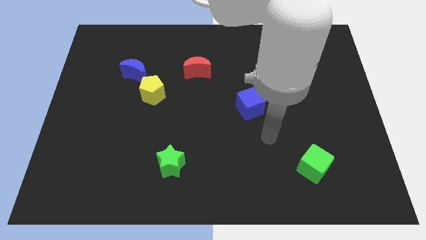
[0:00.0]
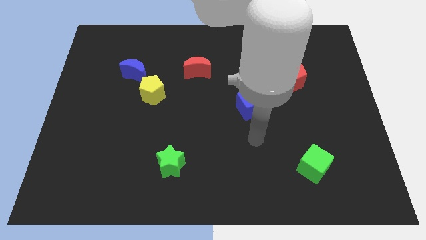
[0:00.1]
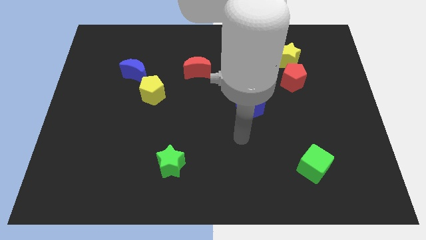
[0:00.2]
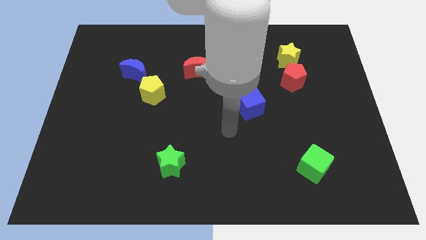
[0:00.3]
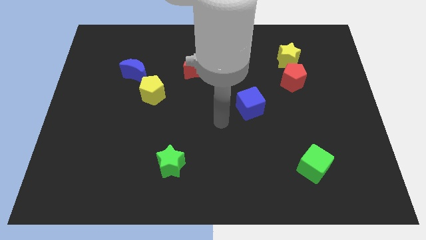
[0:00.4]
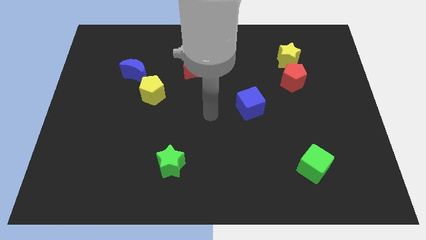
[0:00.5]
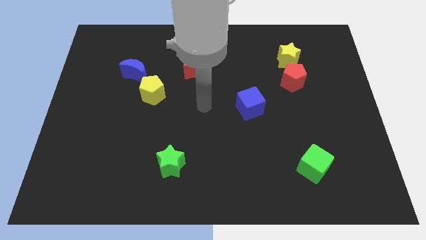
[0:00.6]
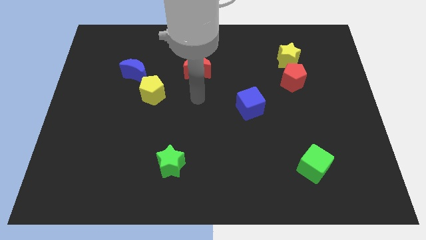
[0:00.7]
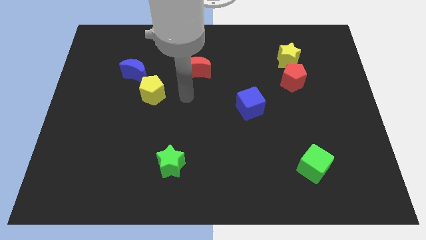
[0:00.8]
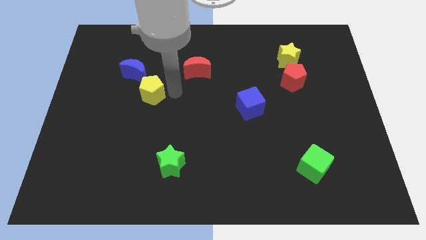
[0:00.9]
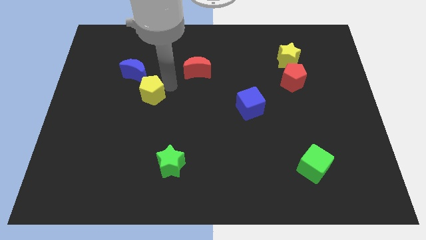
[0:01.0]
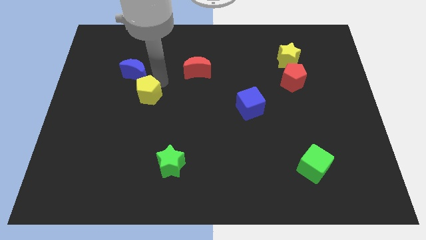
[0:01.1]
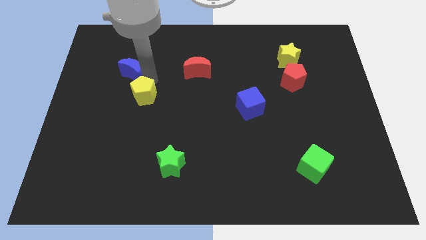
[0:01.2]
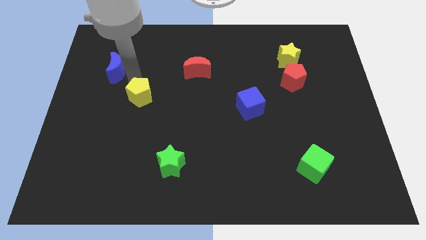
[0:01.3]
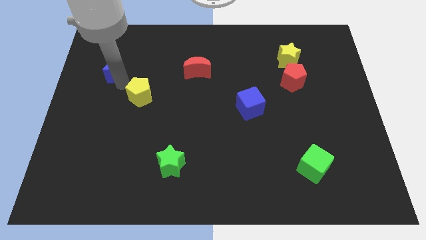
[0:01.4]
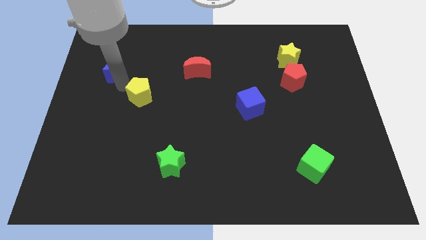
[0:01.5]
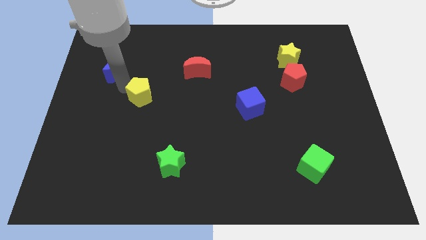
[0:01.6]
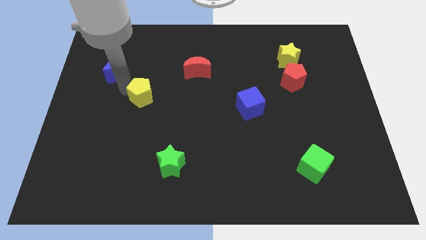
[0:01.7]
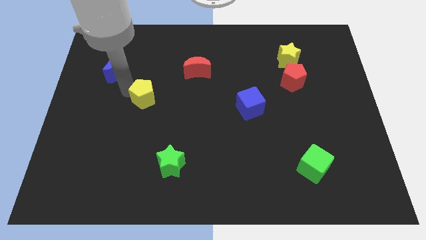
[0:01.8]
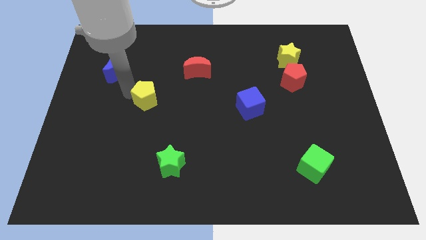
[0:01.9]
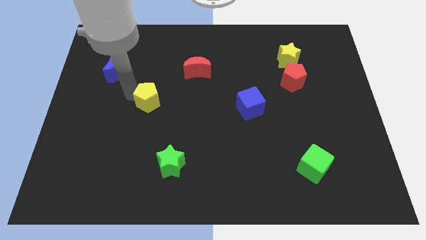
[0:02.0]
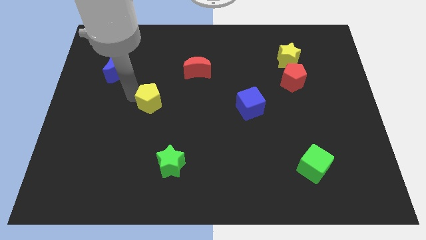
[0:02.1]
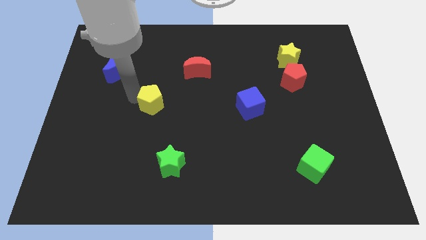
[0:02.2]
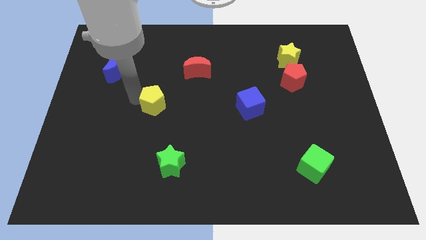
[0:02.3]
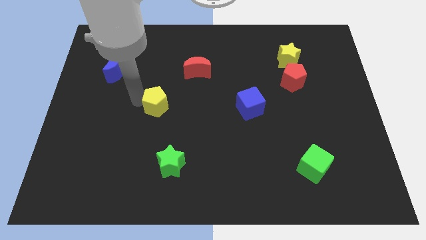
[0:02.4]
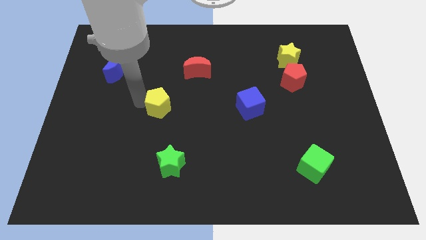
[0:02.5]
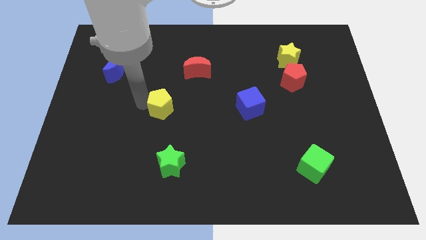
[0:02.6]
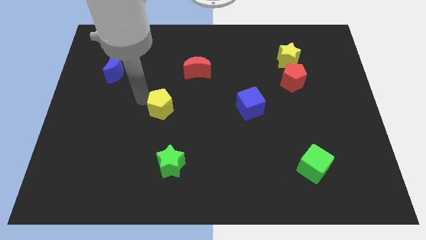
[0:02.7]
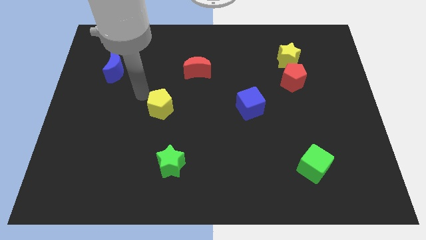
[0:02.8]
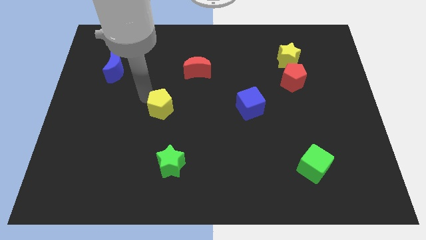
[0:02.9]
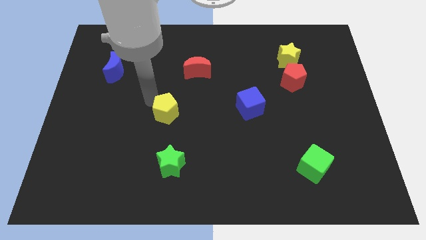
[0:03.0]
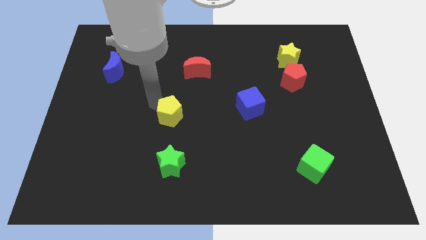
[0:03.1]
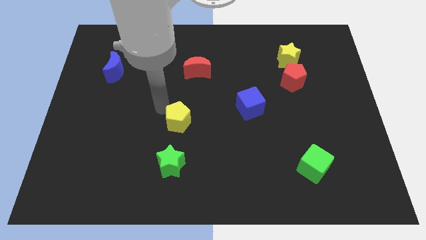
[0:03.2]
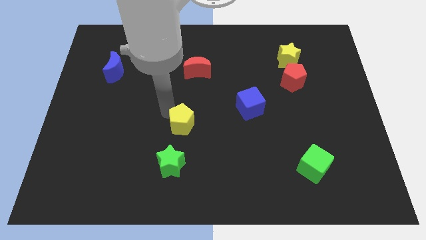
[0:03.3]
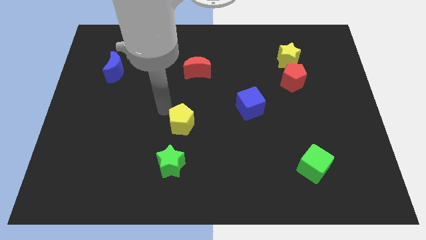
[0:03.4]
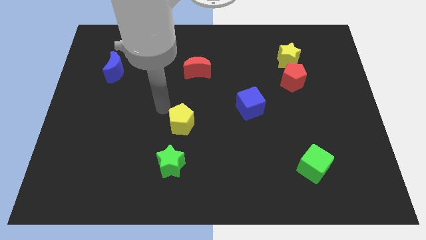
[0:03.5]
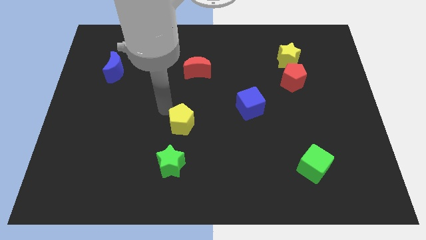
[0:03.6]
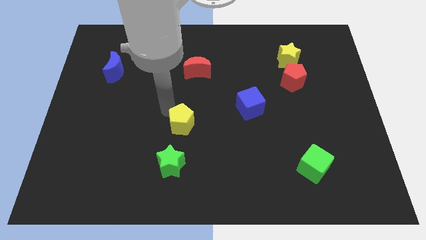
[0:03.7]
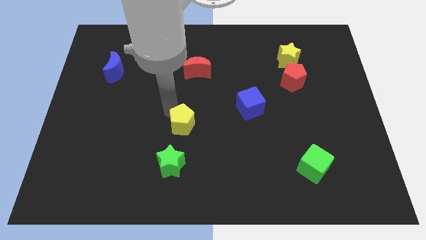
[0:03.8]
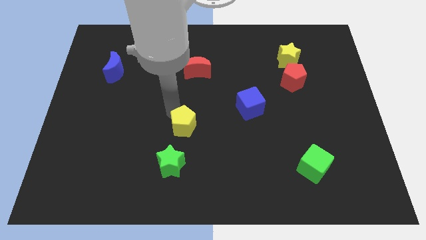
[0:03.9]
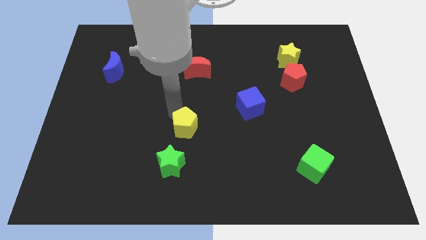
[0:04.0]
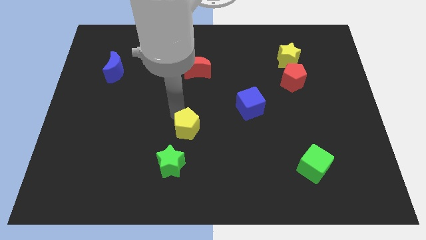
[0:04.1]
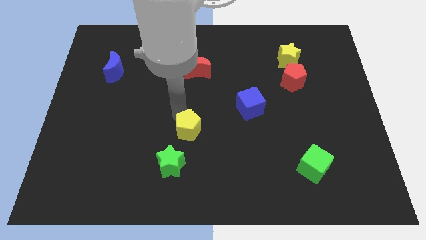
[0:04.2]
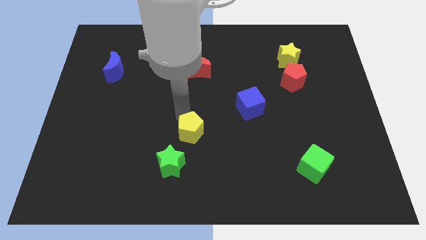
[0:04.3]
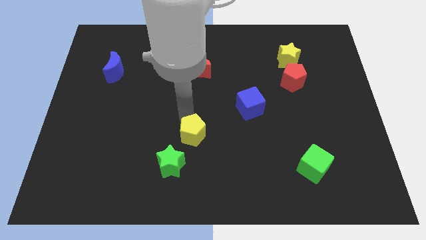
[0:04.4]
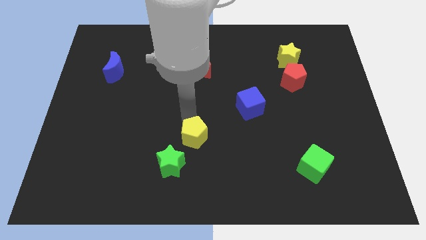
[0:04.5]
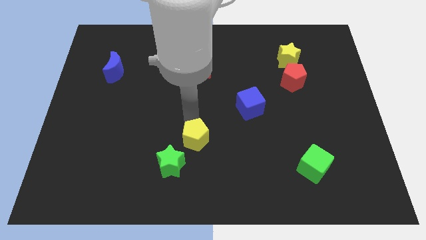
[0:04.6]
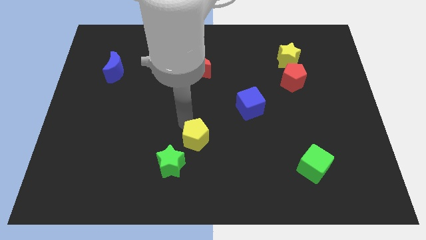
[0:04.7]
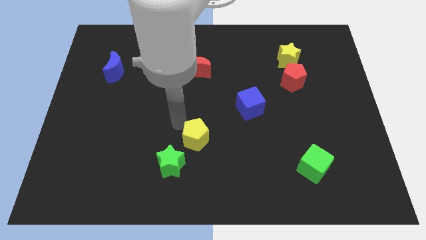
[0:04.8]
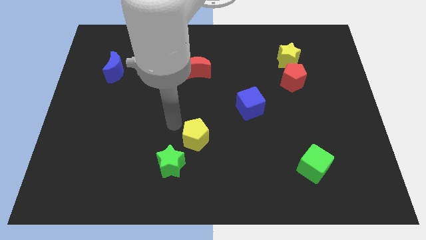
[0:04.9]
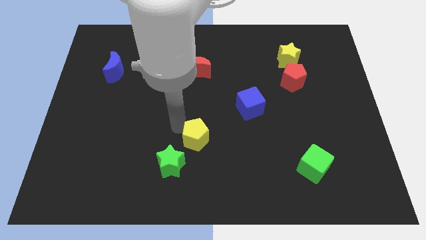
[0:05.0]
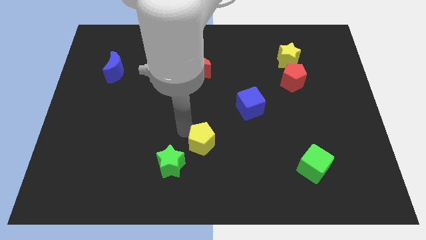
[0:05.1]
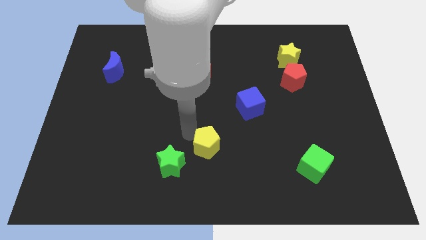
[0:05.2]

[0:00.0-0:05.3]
slide the yellow pentagon diagonally downwards and right

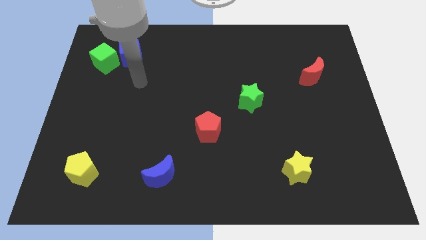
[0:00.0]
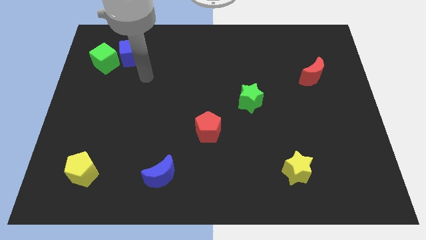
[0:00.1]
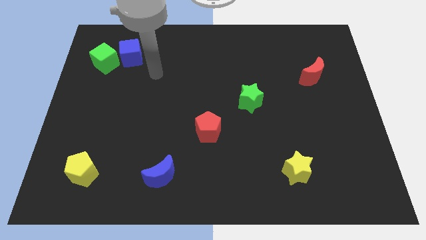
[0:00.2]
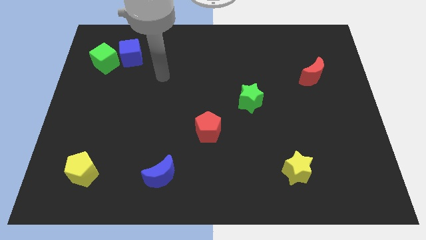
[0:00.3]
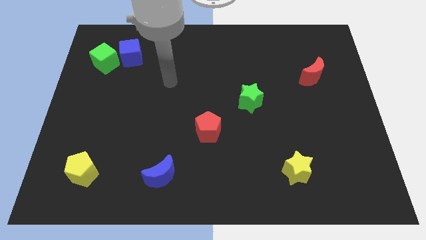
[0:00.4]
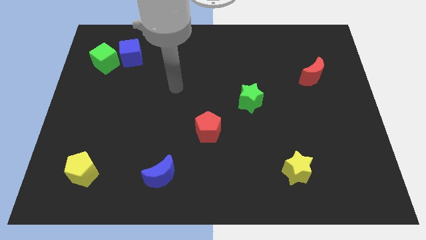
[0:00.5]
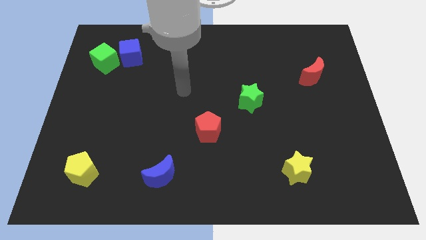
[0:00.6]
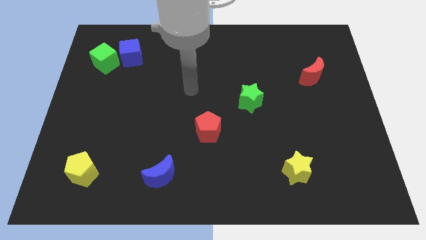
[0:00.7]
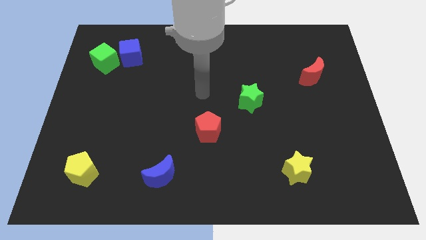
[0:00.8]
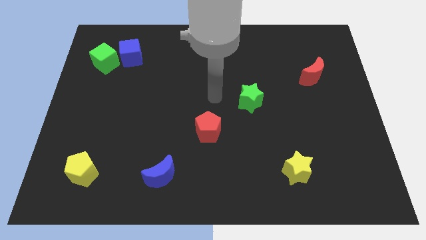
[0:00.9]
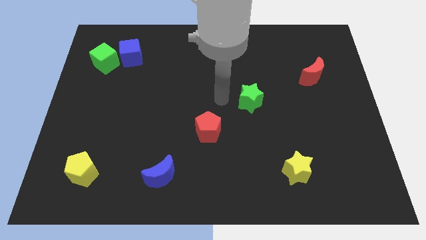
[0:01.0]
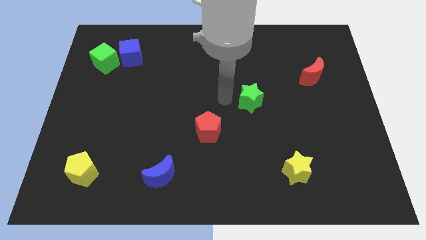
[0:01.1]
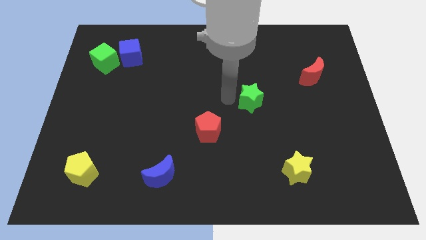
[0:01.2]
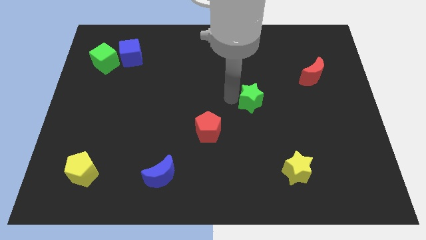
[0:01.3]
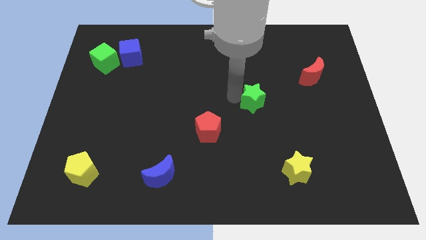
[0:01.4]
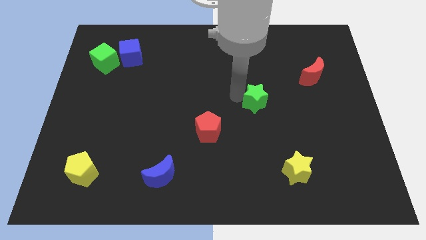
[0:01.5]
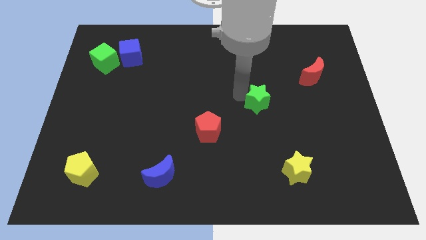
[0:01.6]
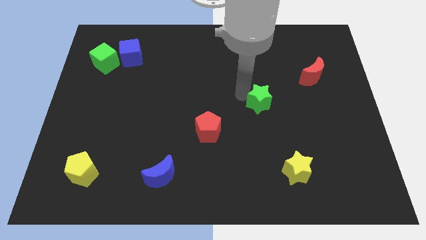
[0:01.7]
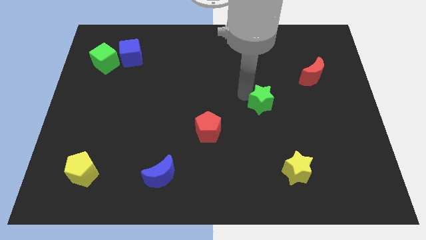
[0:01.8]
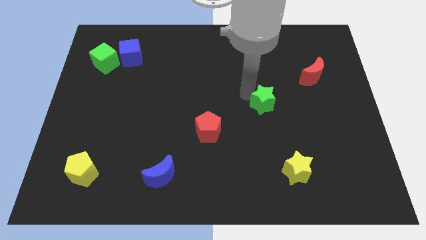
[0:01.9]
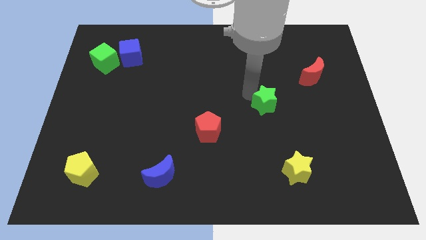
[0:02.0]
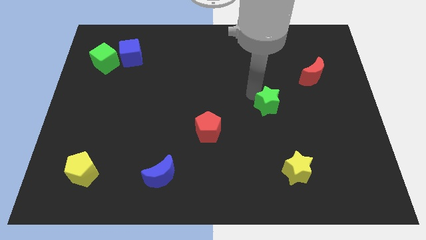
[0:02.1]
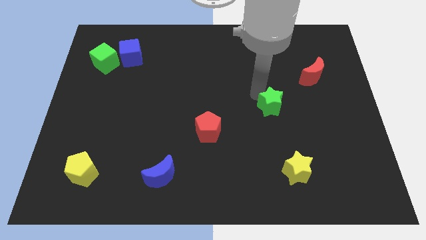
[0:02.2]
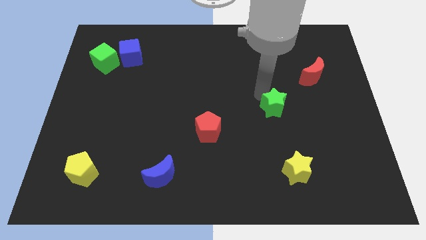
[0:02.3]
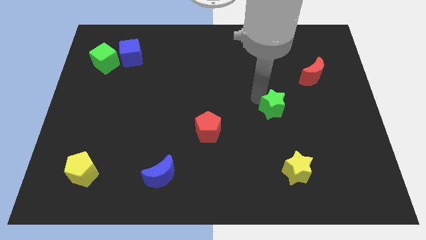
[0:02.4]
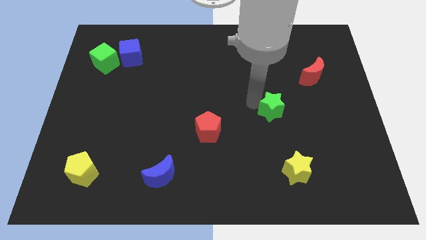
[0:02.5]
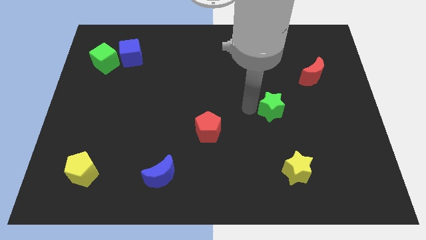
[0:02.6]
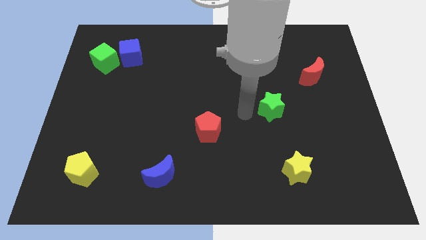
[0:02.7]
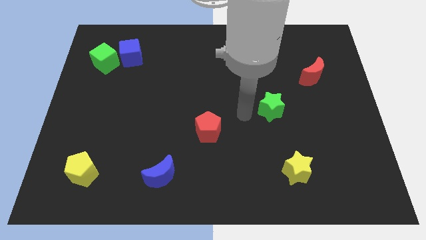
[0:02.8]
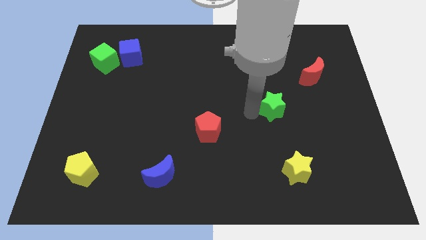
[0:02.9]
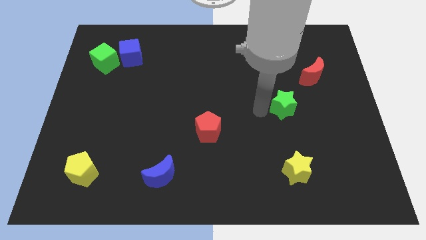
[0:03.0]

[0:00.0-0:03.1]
move the green star a little bit right
